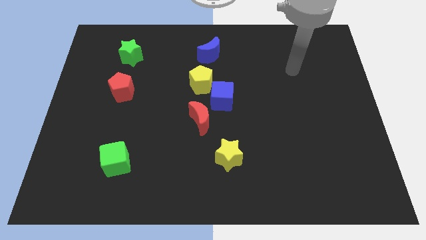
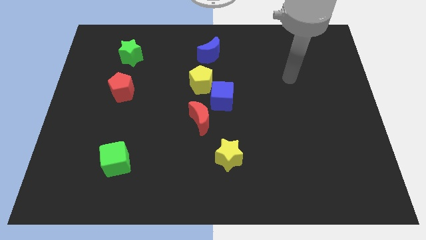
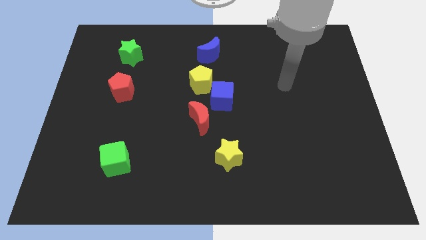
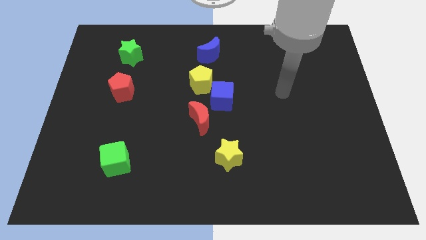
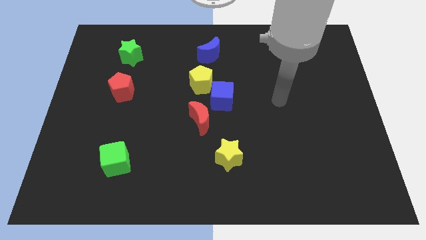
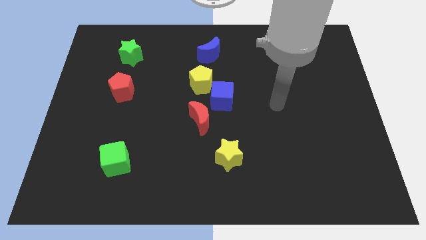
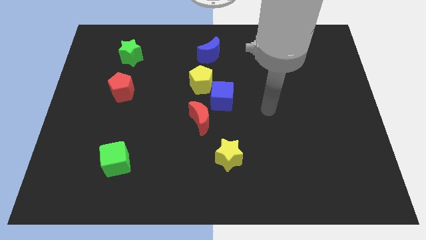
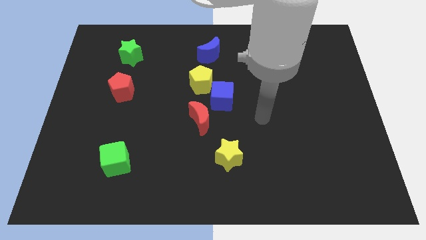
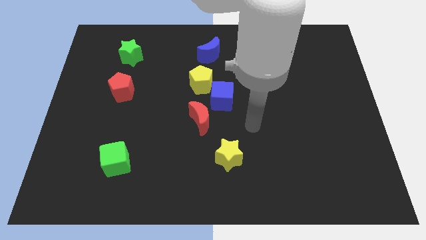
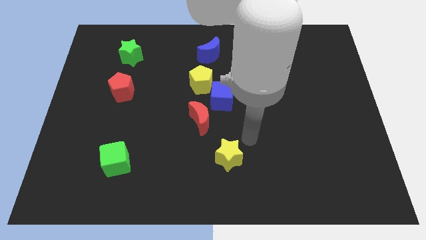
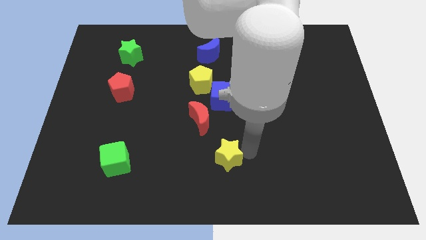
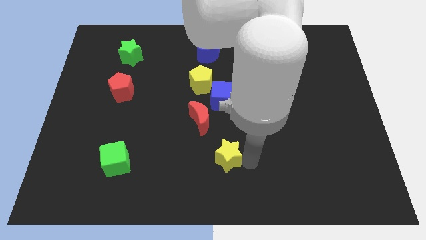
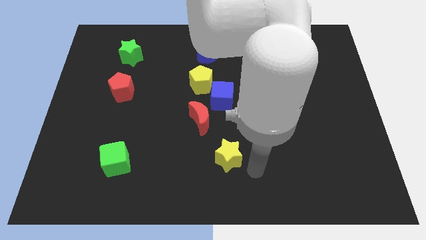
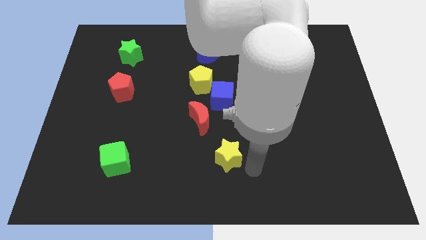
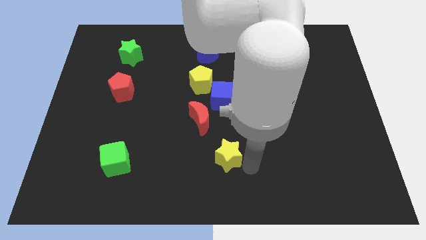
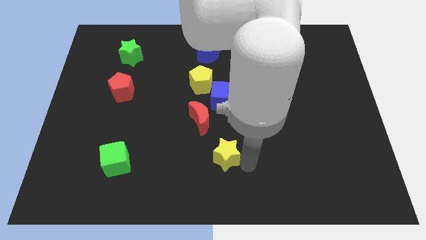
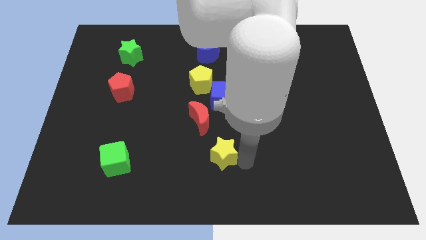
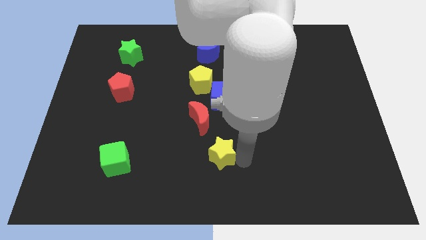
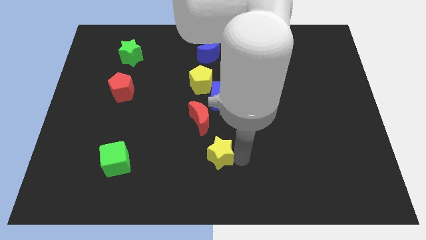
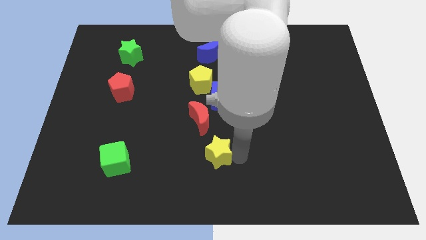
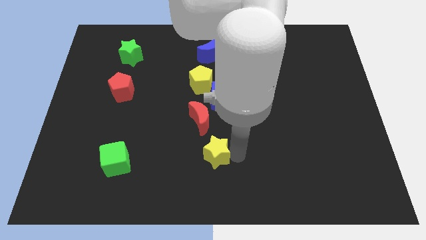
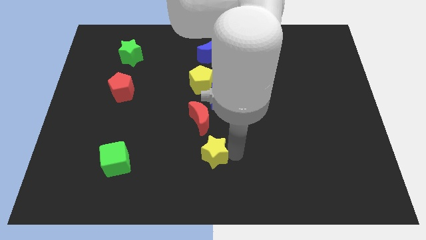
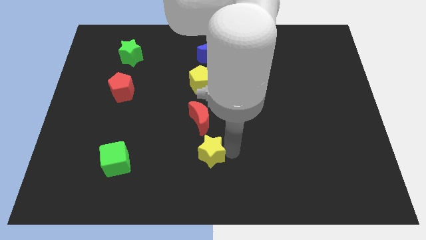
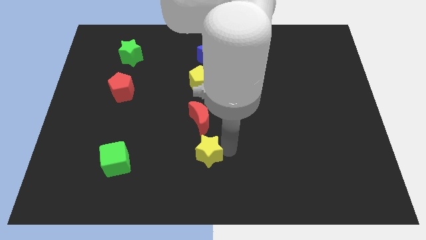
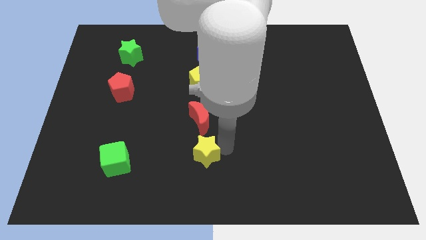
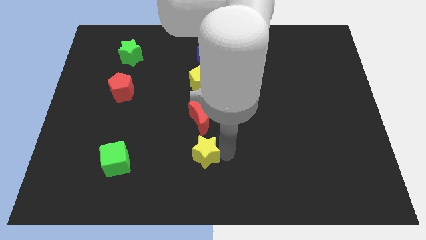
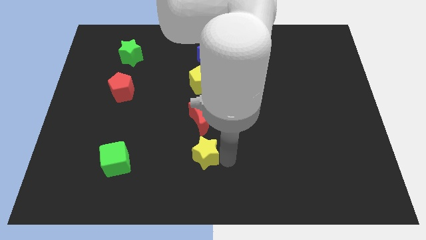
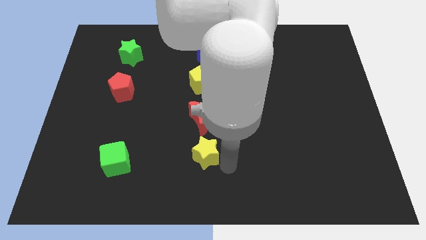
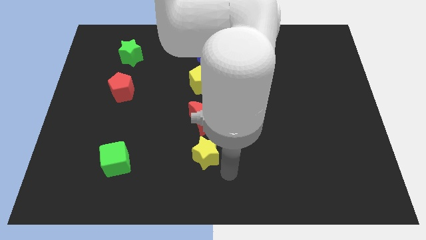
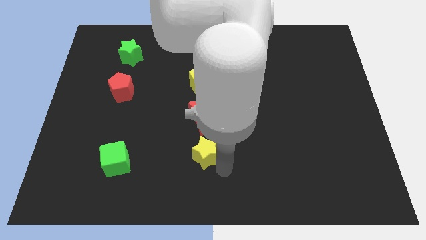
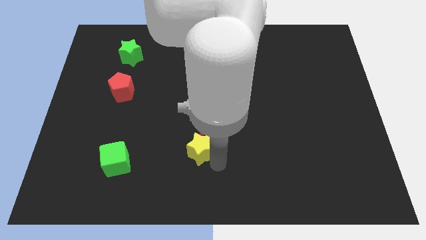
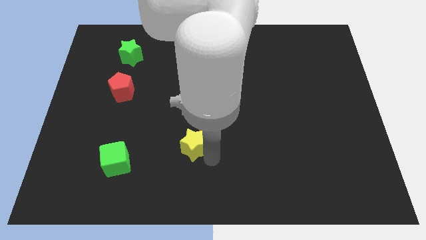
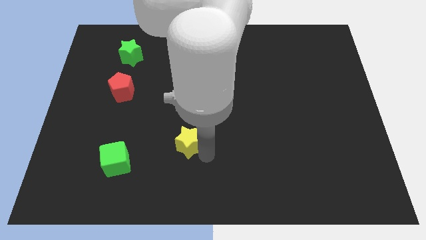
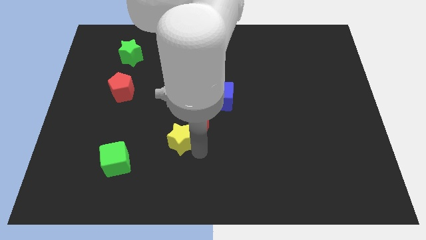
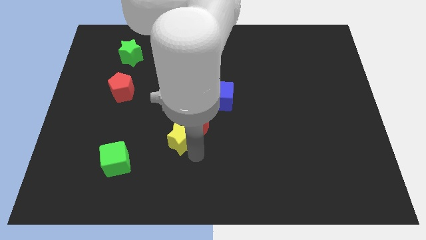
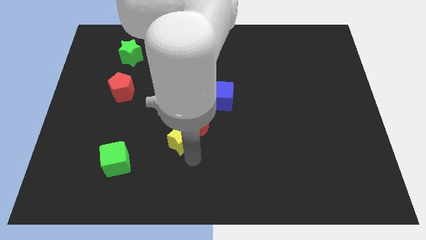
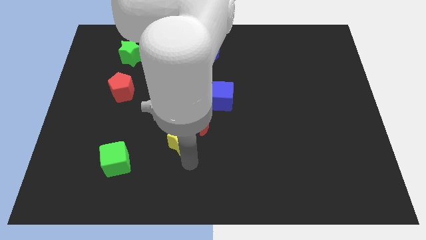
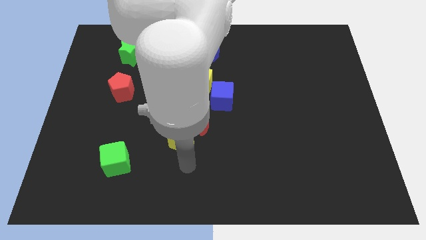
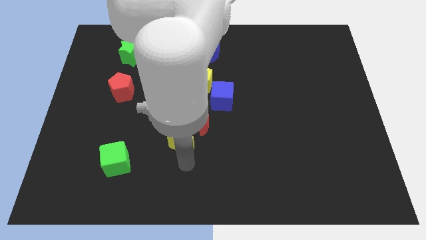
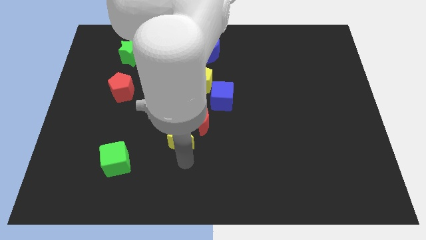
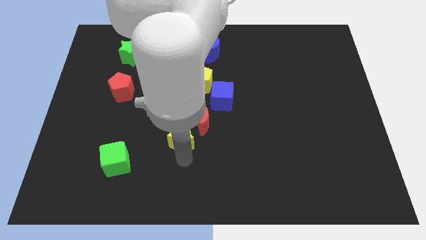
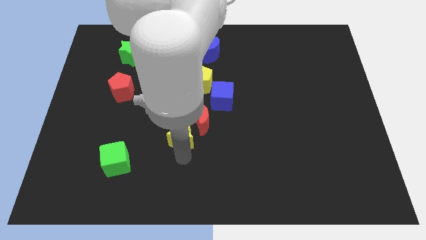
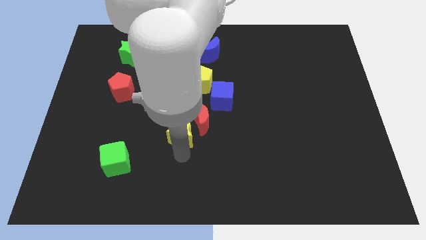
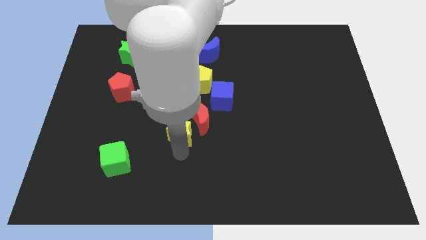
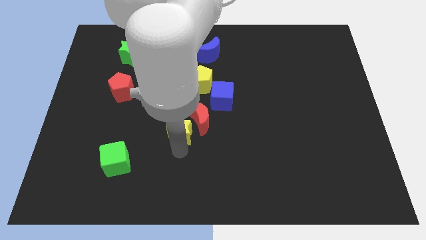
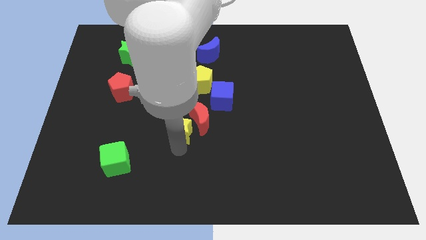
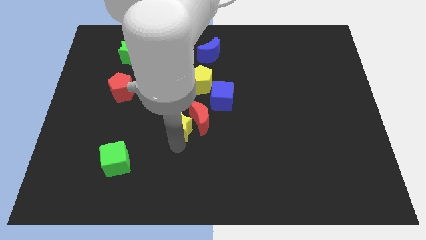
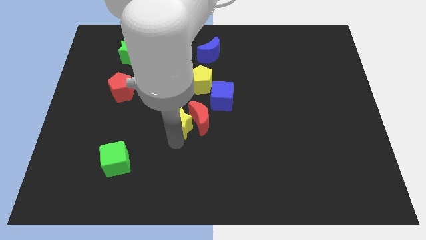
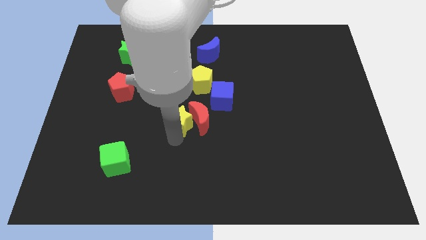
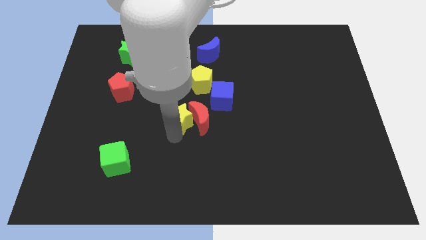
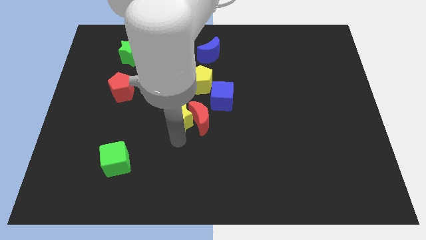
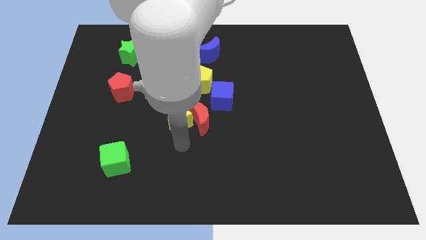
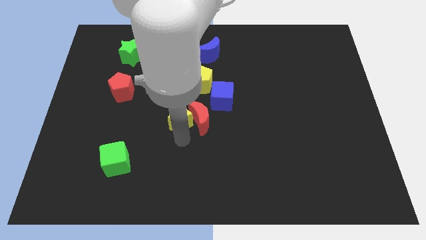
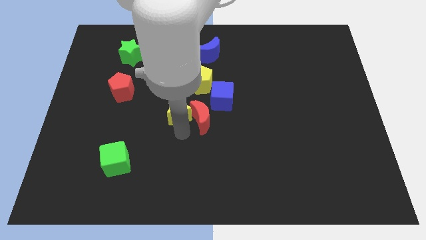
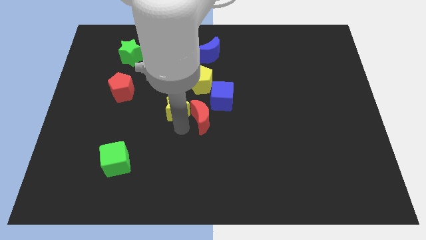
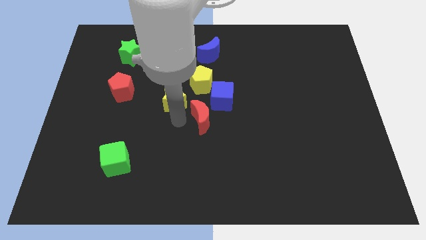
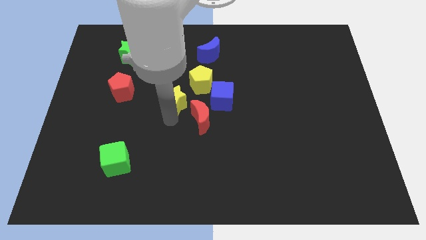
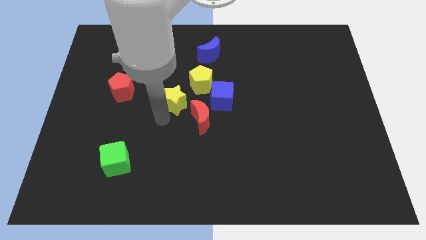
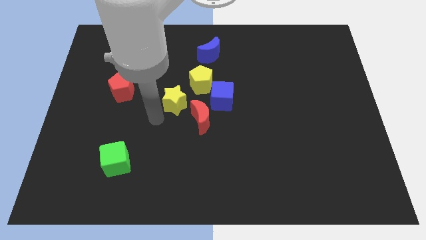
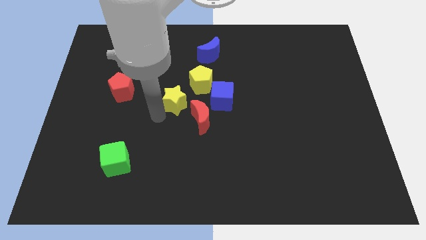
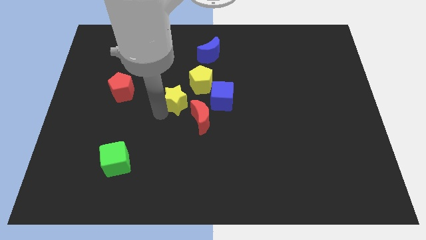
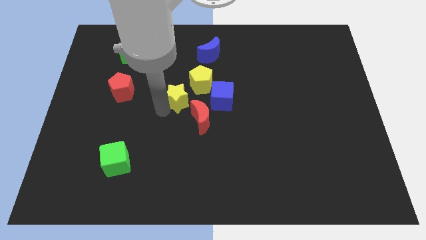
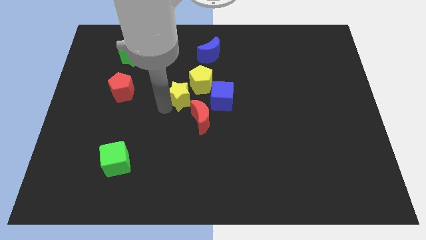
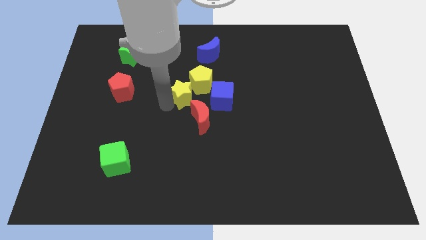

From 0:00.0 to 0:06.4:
slide the yellow star towards the yellow pentagon

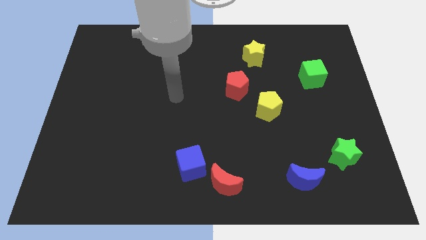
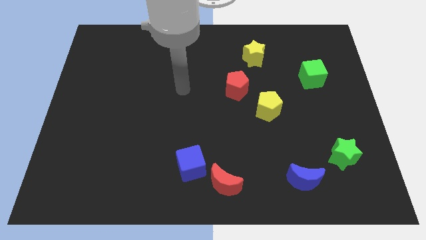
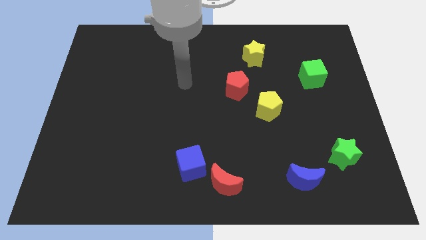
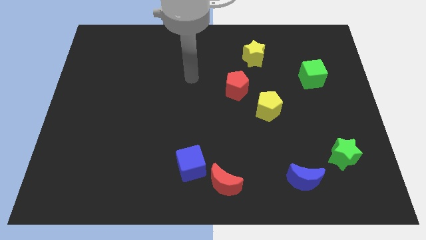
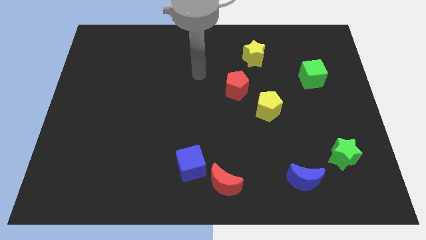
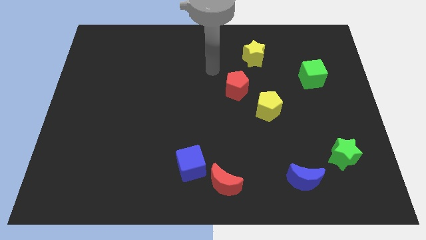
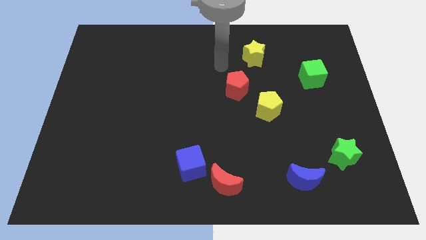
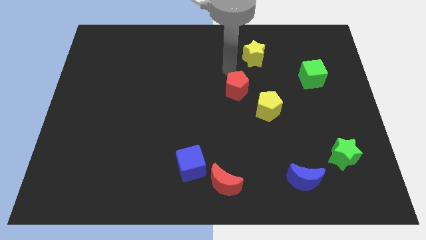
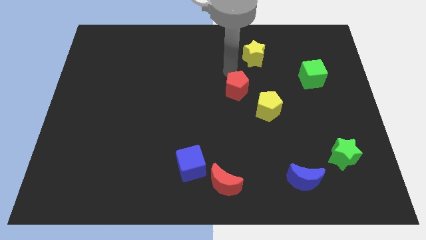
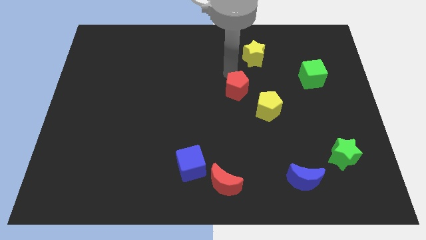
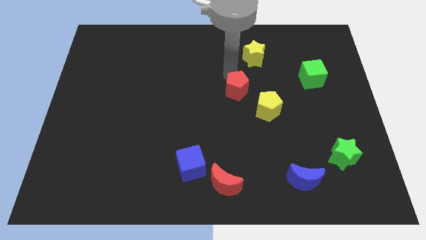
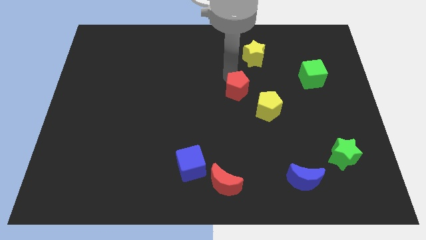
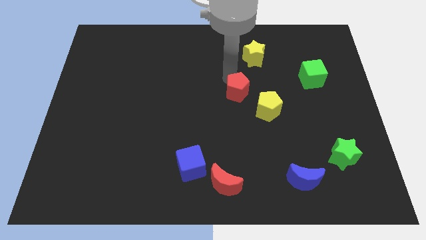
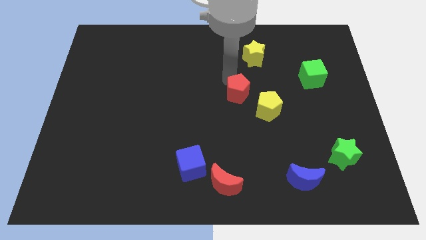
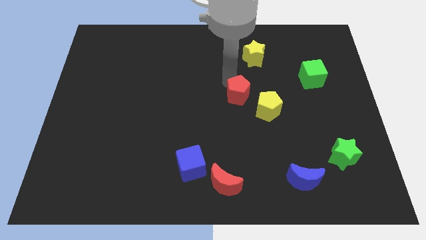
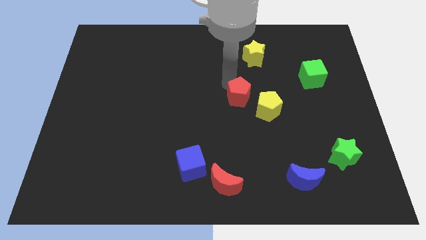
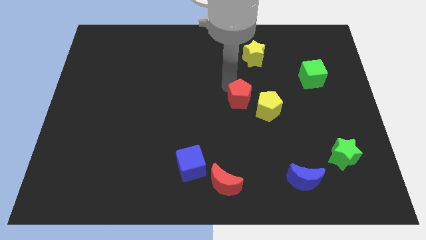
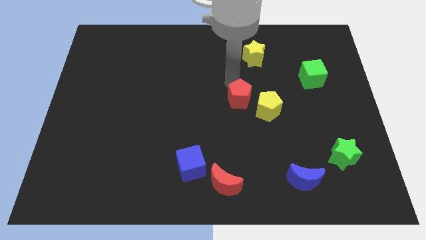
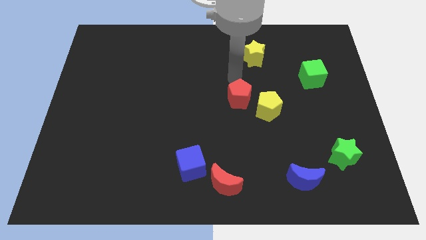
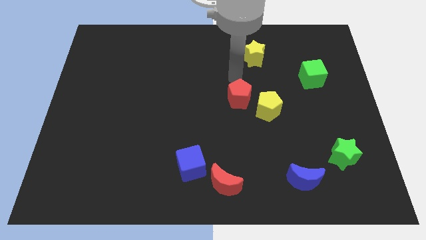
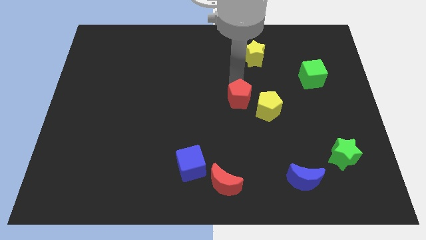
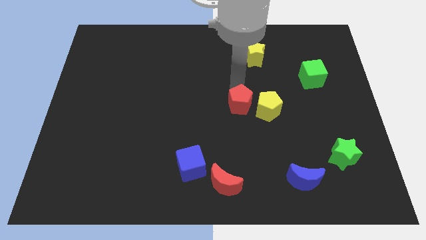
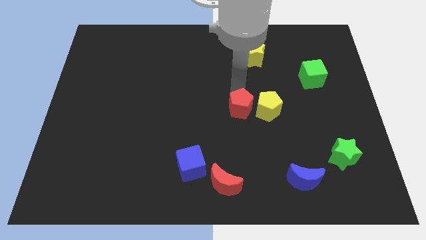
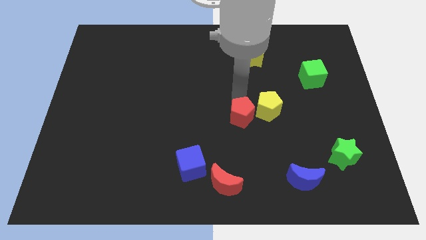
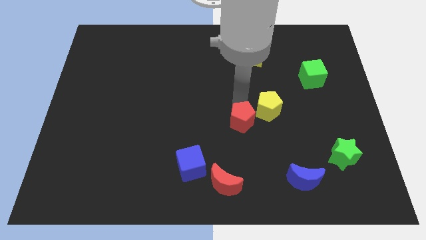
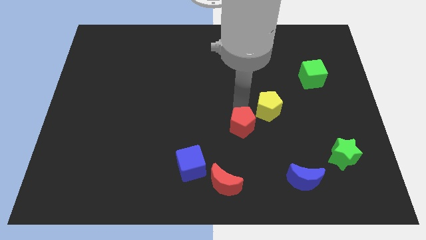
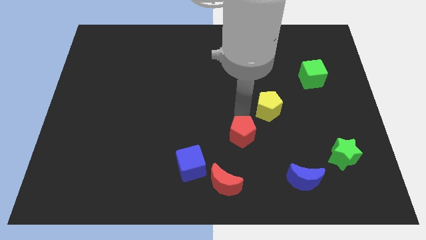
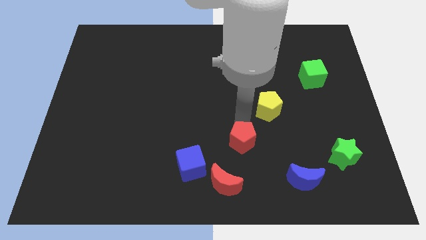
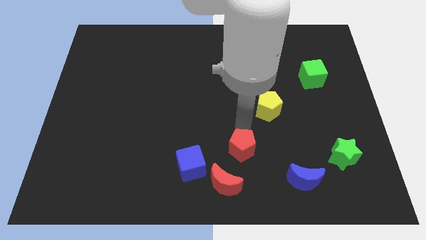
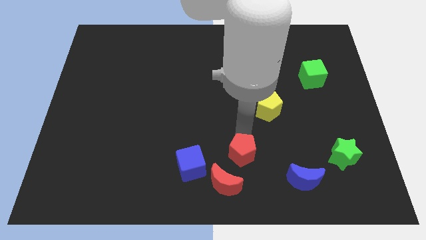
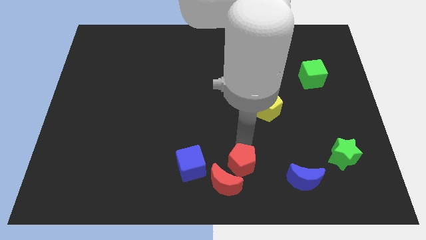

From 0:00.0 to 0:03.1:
slide the red pentagon close to the red moon
